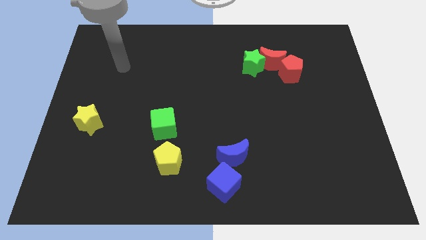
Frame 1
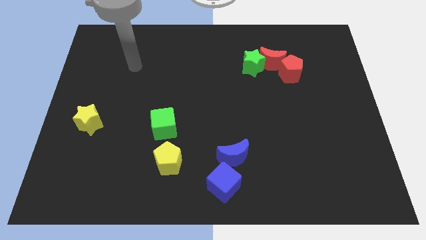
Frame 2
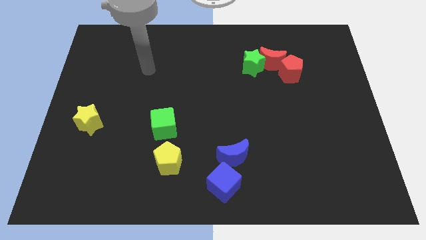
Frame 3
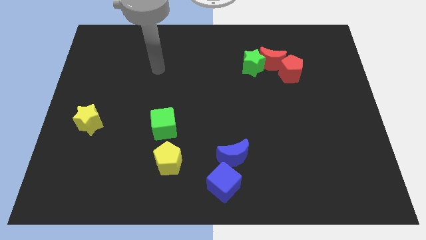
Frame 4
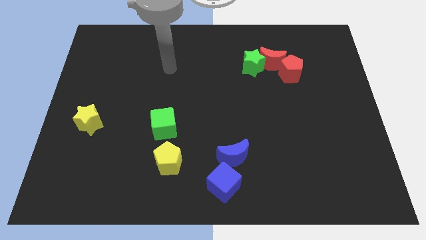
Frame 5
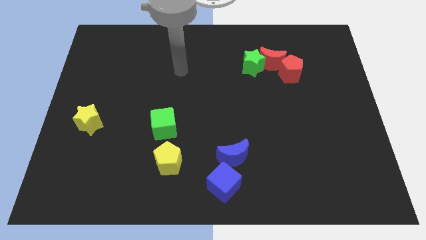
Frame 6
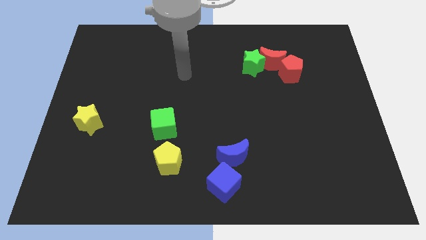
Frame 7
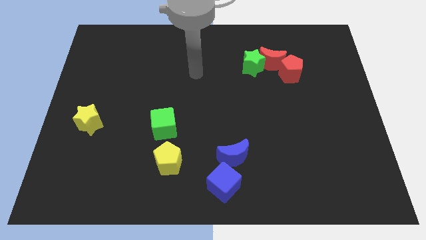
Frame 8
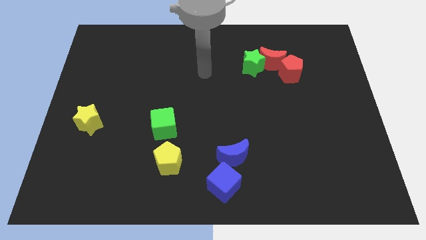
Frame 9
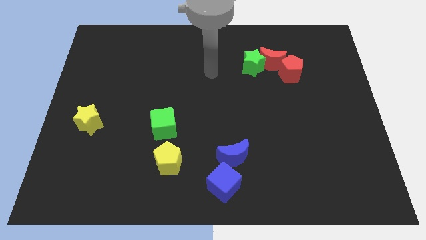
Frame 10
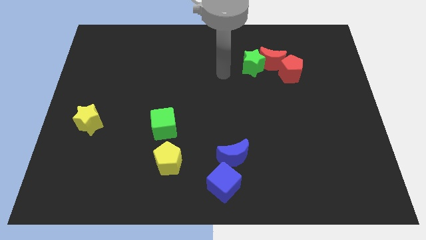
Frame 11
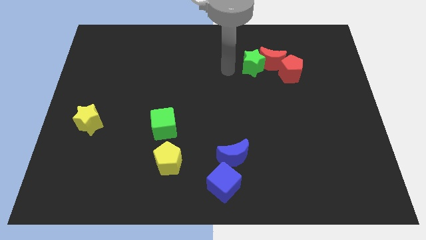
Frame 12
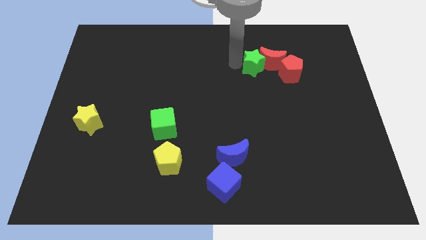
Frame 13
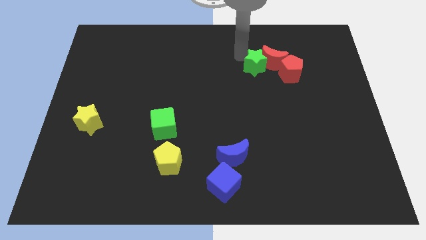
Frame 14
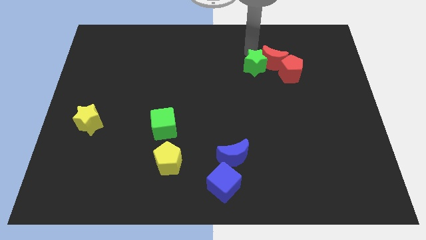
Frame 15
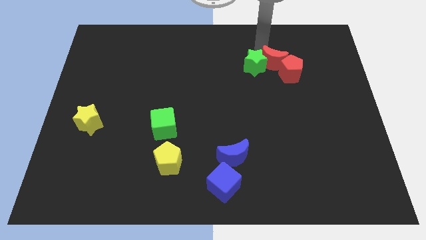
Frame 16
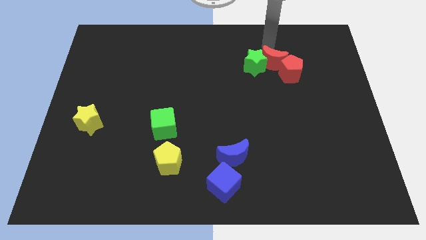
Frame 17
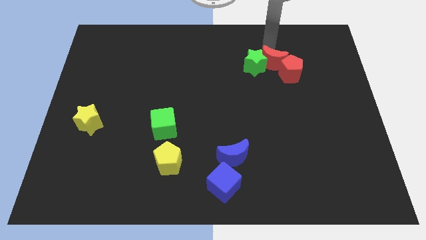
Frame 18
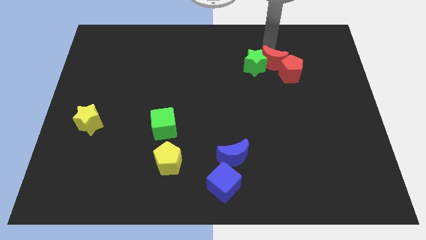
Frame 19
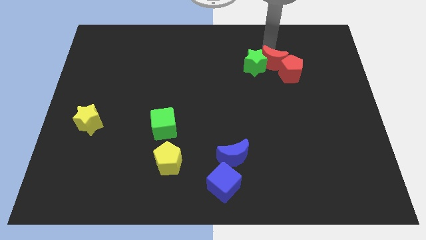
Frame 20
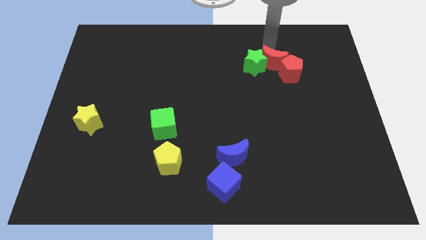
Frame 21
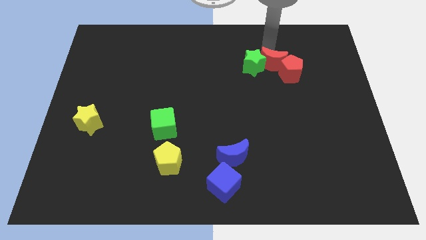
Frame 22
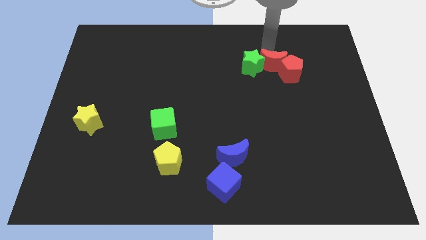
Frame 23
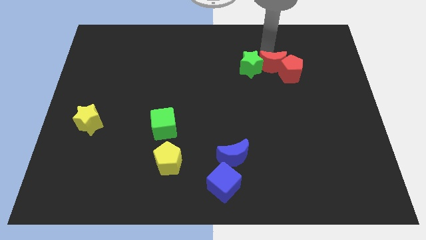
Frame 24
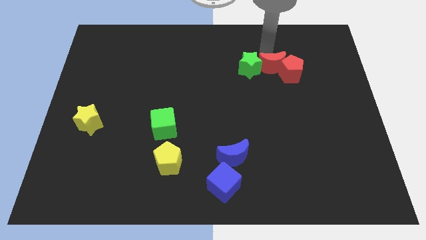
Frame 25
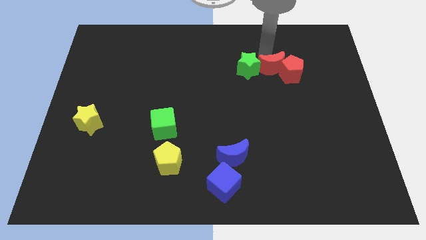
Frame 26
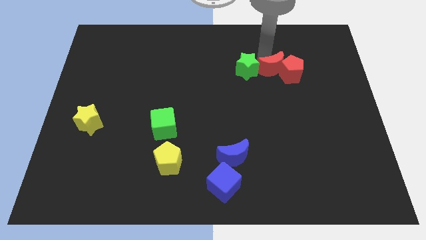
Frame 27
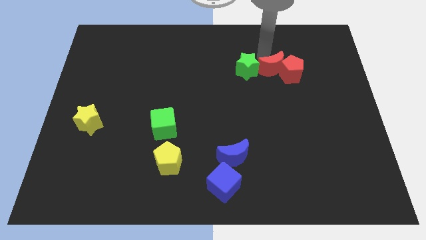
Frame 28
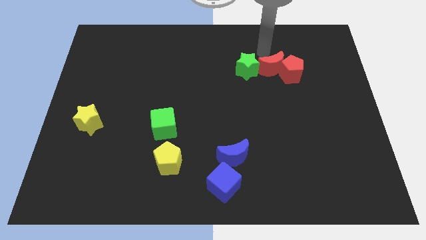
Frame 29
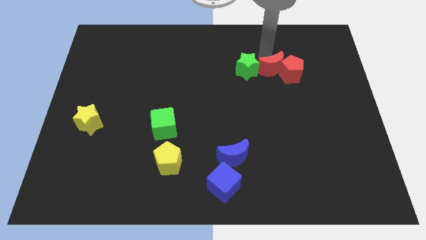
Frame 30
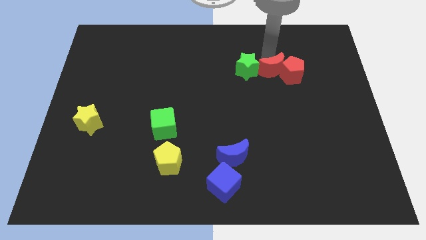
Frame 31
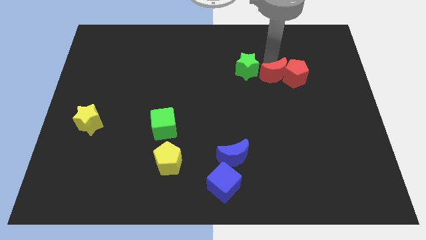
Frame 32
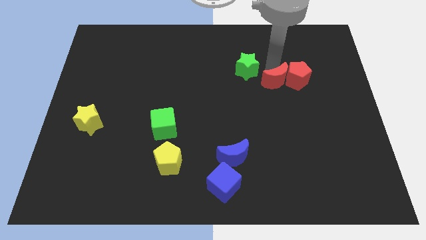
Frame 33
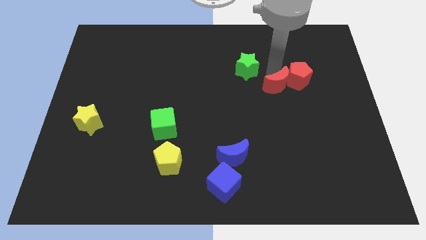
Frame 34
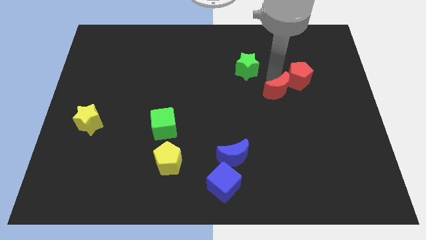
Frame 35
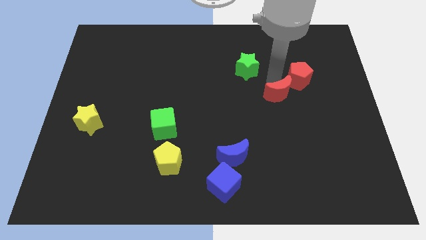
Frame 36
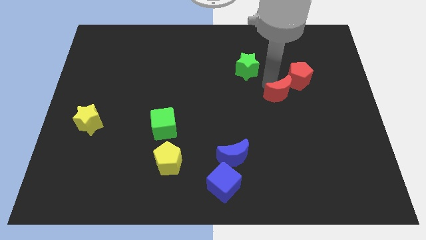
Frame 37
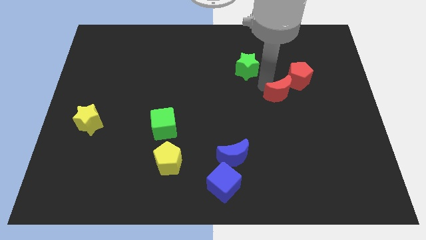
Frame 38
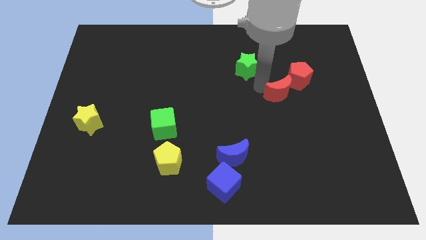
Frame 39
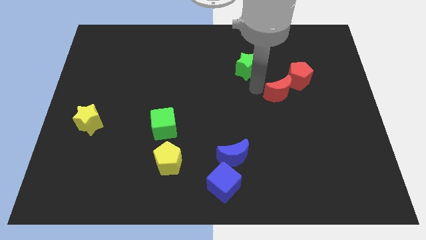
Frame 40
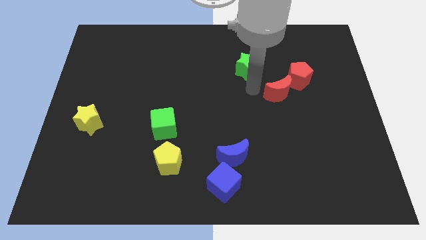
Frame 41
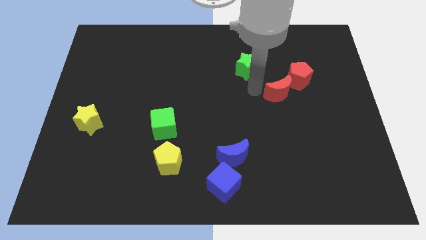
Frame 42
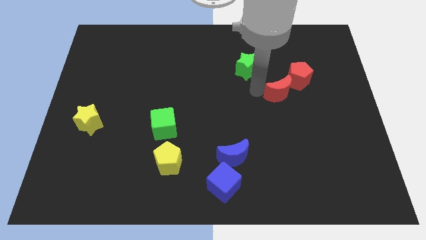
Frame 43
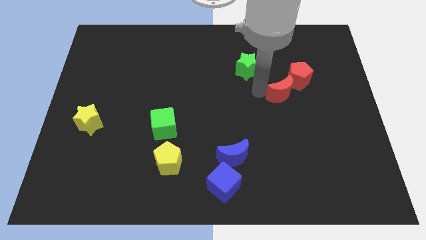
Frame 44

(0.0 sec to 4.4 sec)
slide the red moon a little bit diagonally down and right

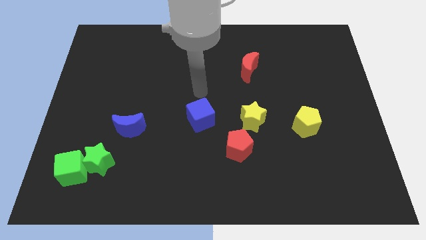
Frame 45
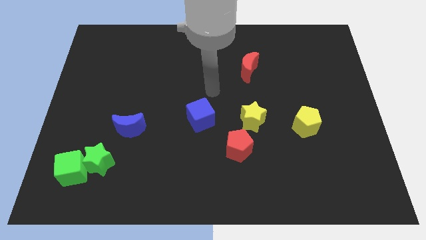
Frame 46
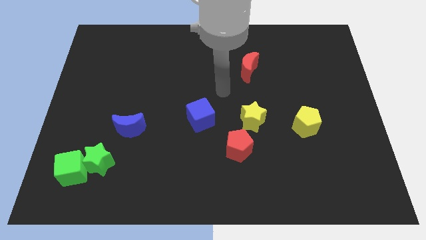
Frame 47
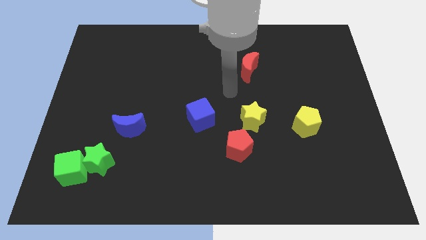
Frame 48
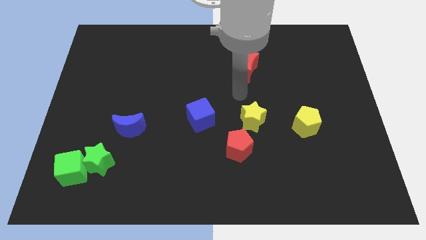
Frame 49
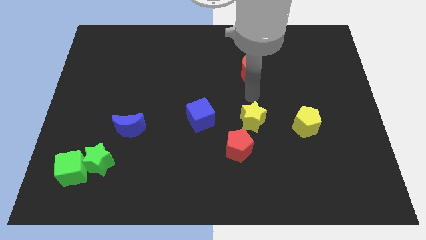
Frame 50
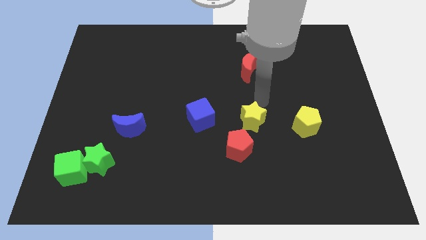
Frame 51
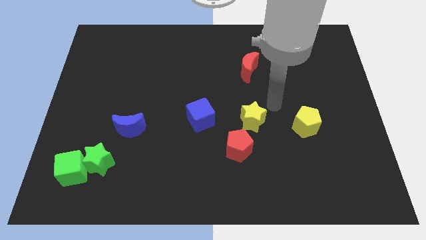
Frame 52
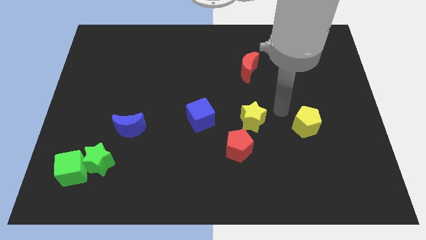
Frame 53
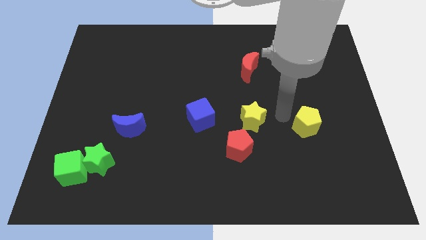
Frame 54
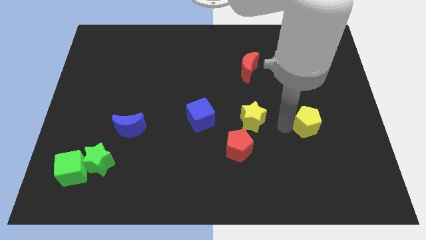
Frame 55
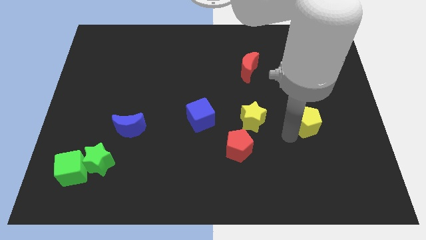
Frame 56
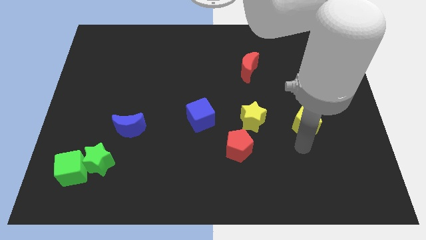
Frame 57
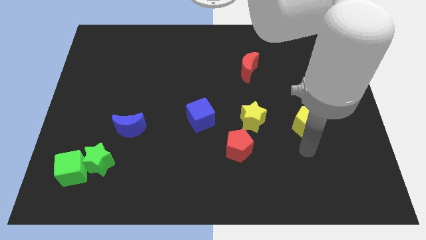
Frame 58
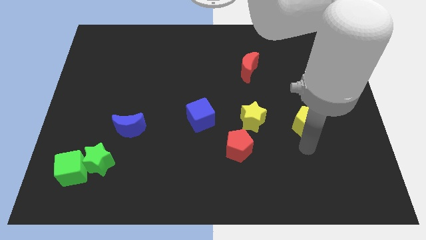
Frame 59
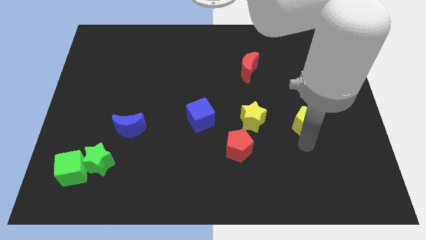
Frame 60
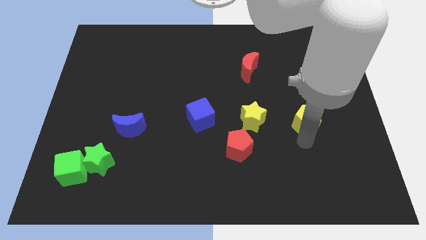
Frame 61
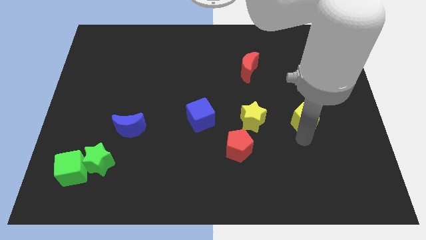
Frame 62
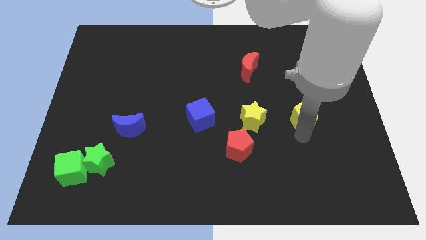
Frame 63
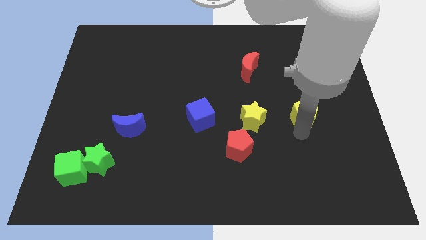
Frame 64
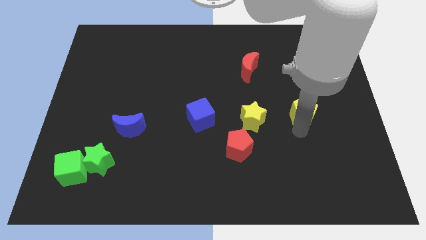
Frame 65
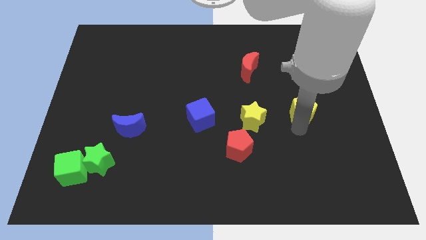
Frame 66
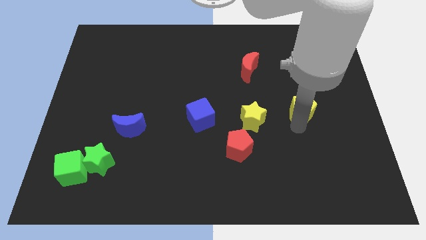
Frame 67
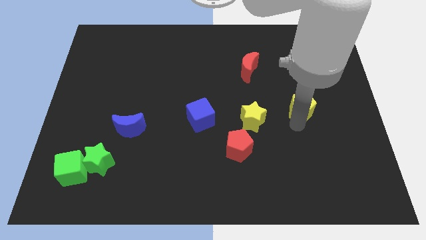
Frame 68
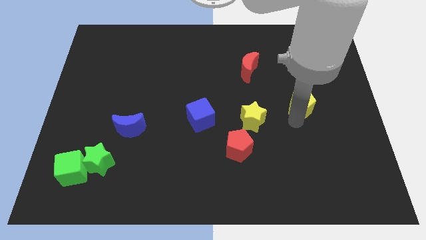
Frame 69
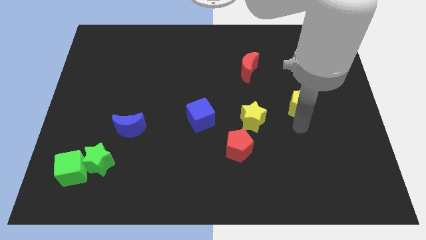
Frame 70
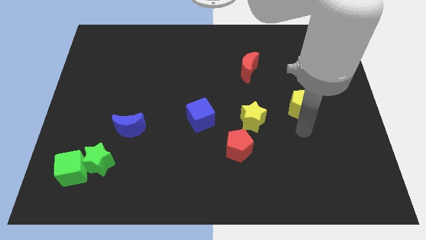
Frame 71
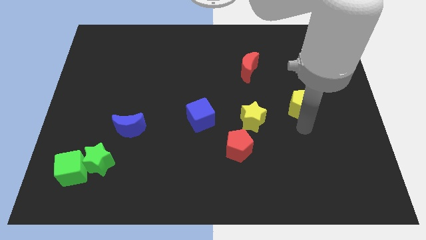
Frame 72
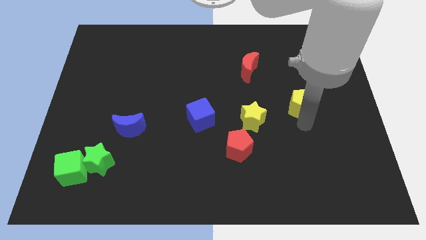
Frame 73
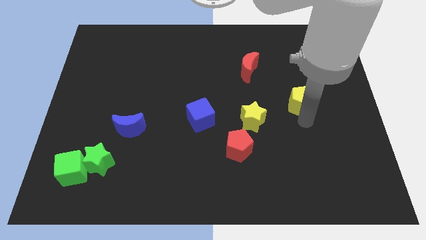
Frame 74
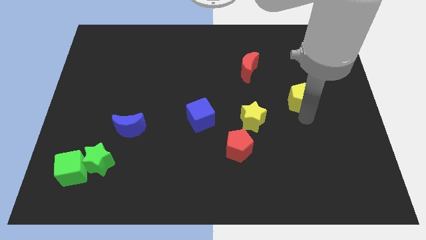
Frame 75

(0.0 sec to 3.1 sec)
slightly slide the yellow pentagon upwards

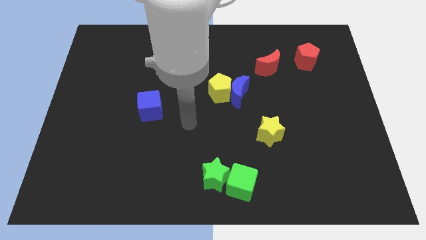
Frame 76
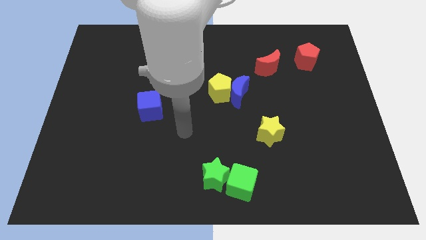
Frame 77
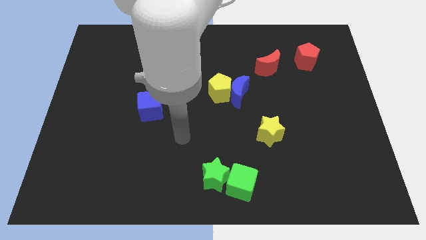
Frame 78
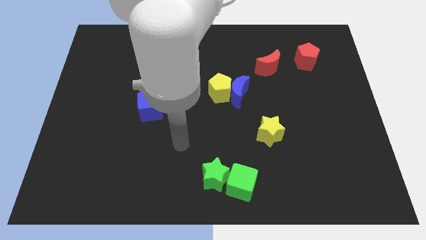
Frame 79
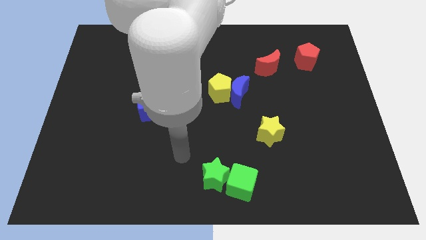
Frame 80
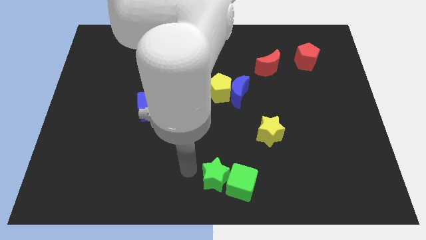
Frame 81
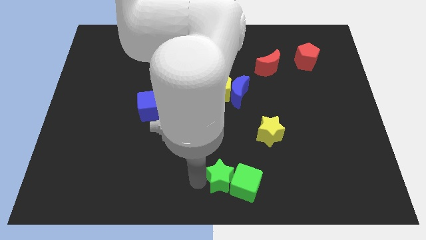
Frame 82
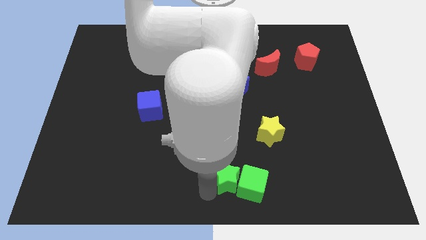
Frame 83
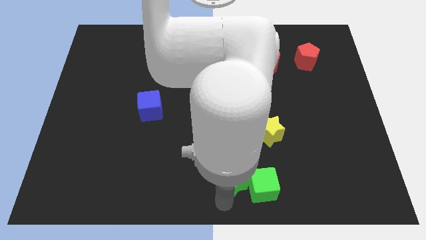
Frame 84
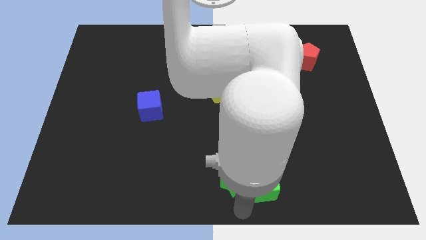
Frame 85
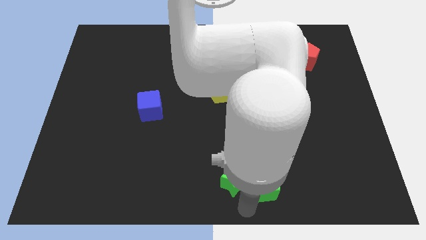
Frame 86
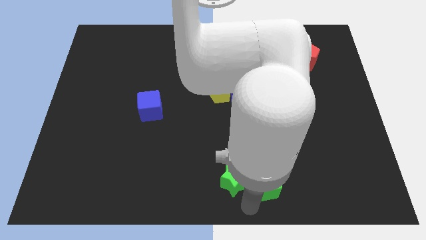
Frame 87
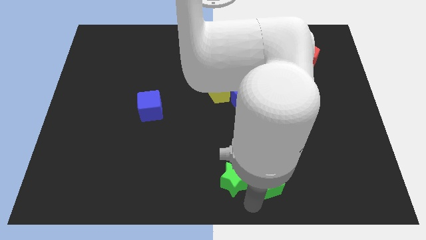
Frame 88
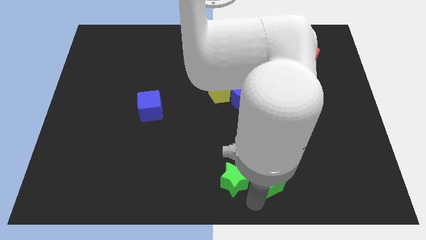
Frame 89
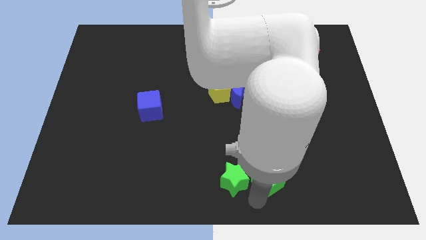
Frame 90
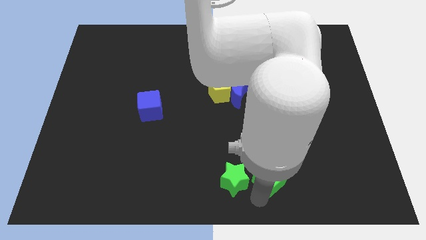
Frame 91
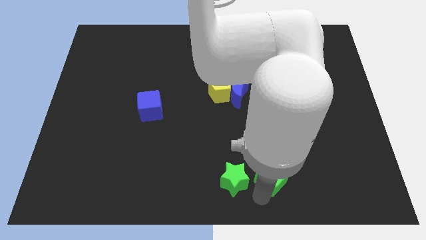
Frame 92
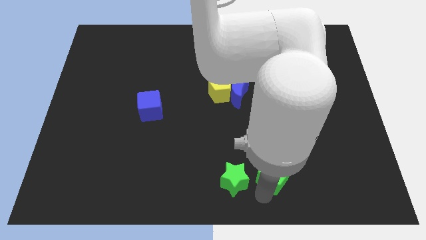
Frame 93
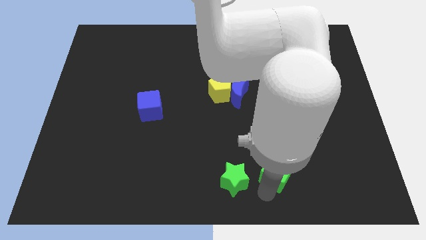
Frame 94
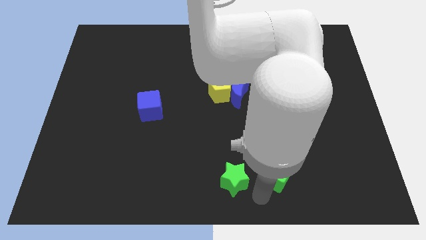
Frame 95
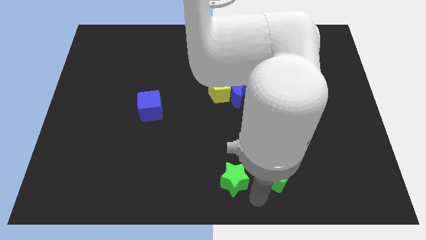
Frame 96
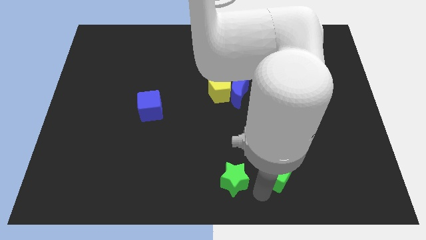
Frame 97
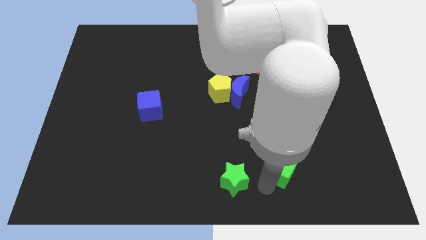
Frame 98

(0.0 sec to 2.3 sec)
push the green cube diagonally up and to the right a little
